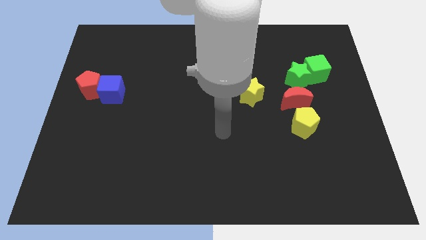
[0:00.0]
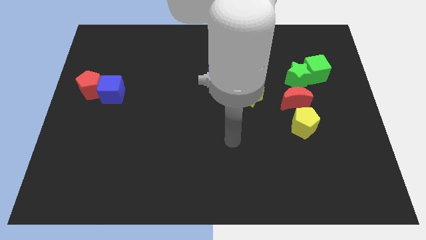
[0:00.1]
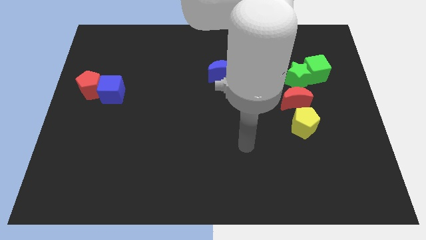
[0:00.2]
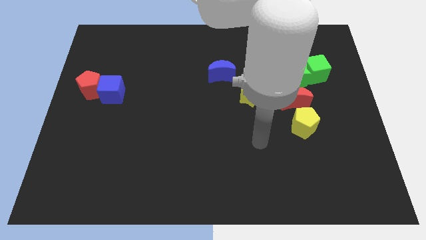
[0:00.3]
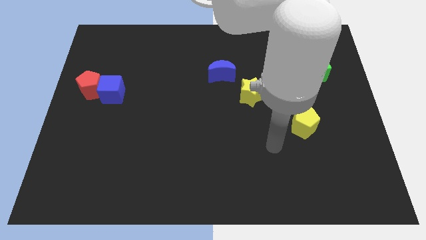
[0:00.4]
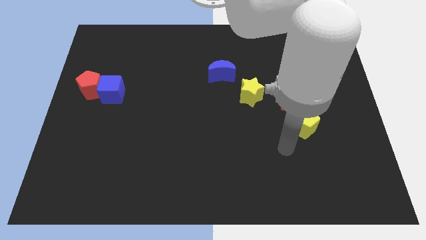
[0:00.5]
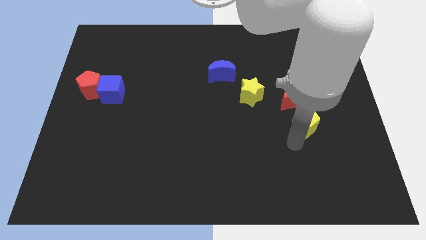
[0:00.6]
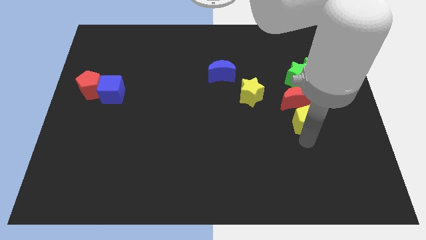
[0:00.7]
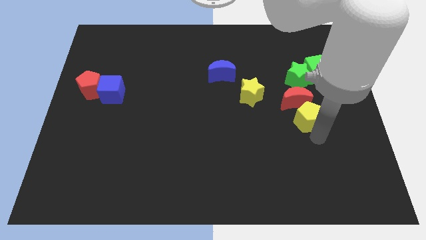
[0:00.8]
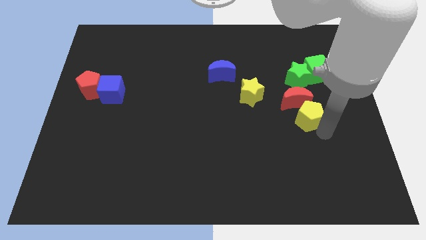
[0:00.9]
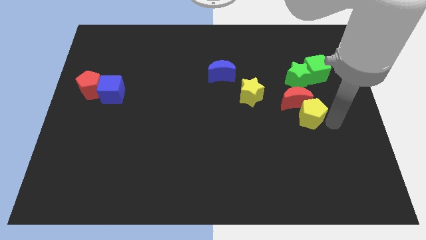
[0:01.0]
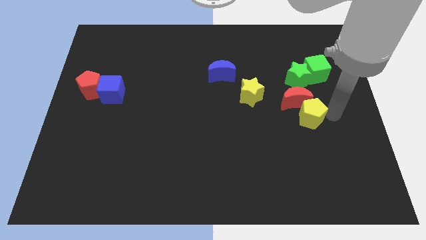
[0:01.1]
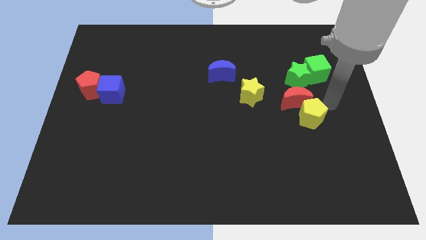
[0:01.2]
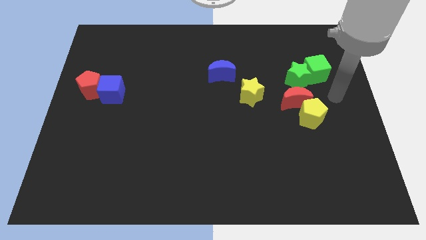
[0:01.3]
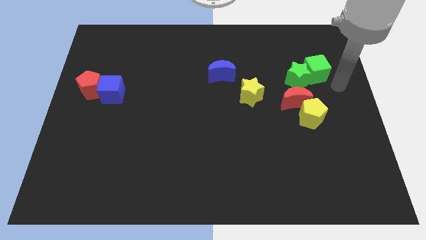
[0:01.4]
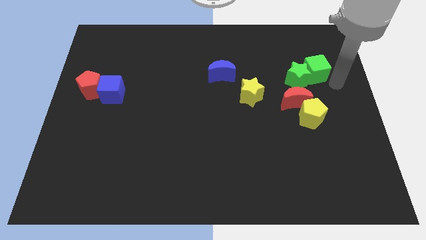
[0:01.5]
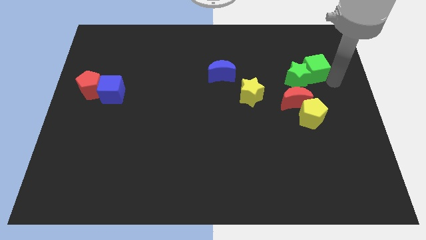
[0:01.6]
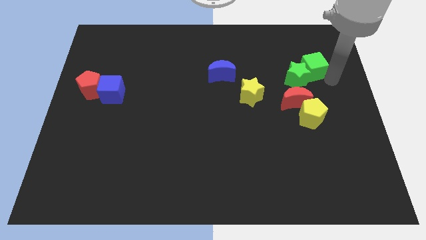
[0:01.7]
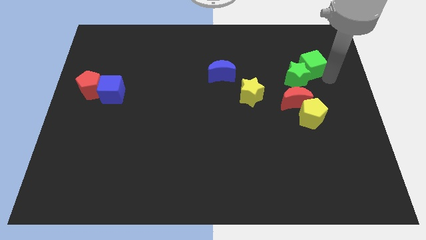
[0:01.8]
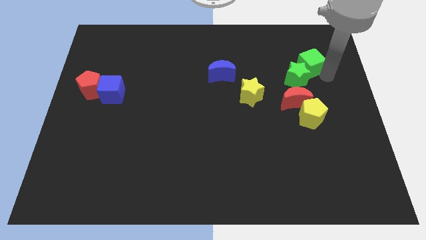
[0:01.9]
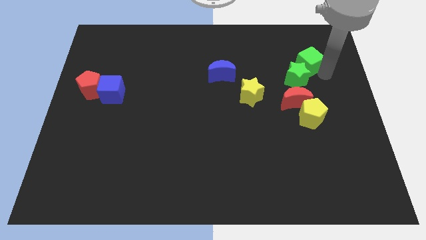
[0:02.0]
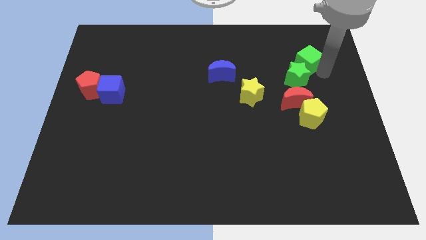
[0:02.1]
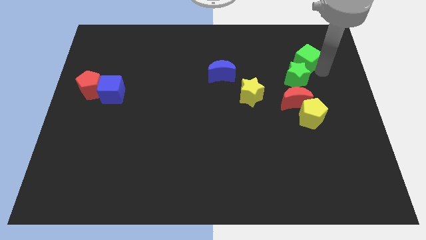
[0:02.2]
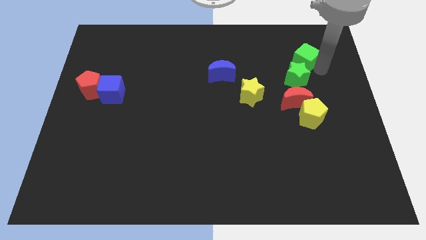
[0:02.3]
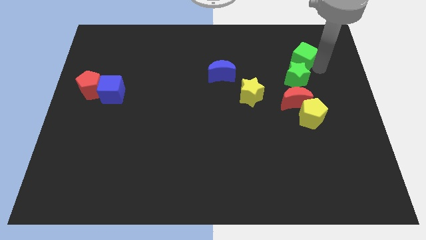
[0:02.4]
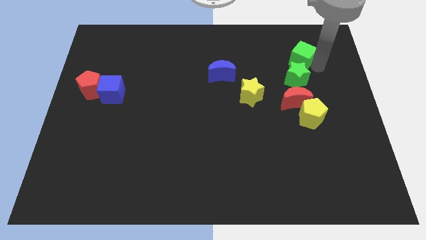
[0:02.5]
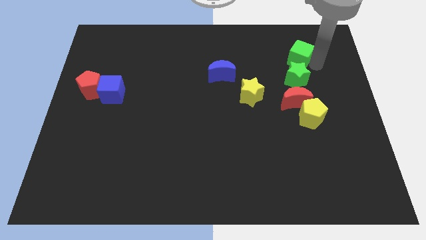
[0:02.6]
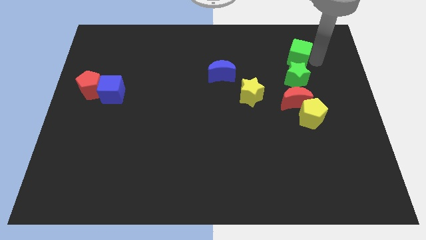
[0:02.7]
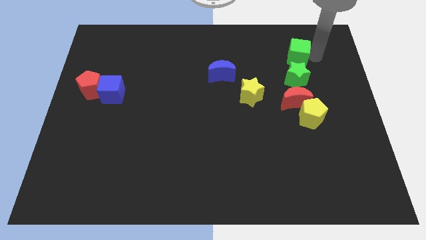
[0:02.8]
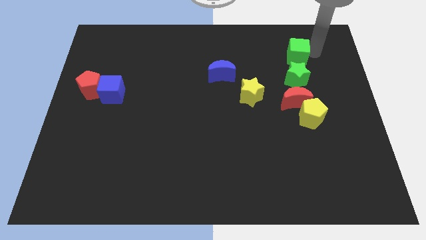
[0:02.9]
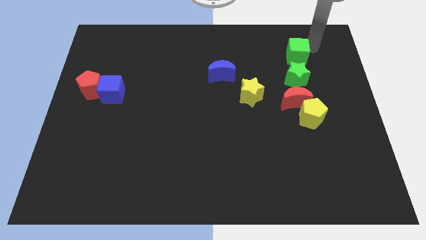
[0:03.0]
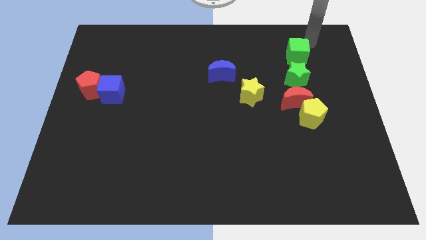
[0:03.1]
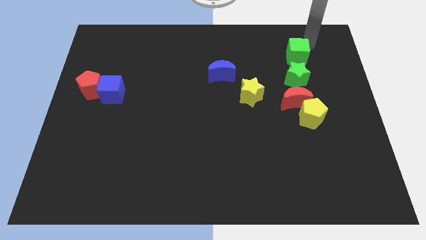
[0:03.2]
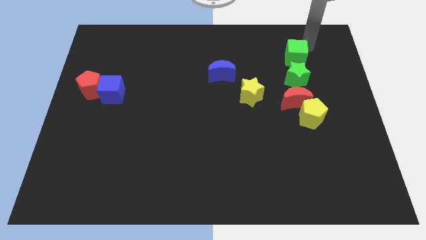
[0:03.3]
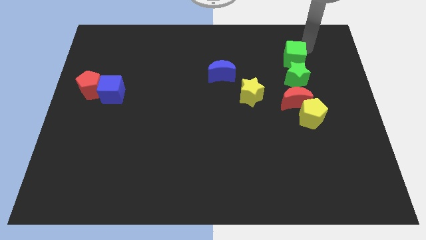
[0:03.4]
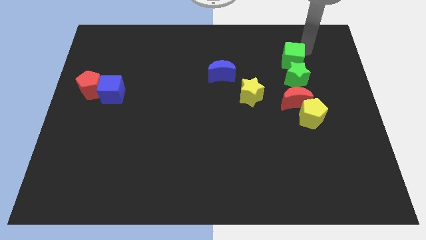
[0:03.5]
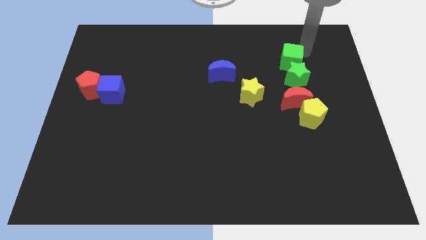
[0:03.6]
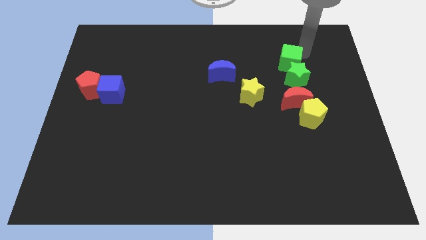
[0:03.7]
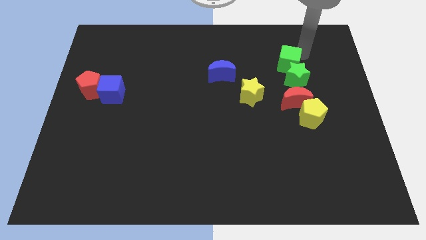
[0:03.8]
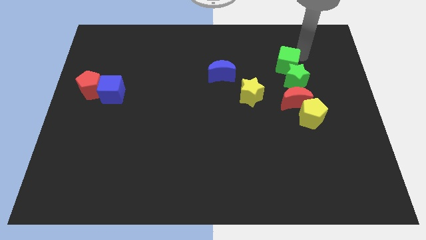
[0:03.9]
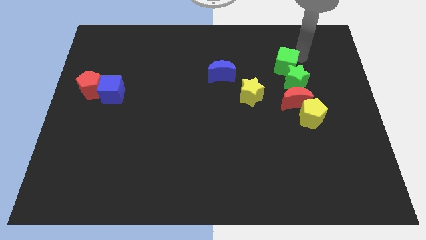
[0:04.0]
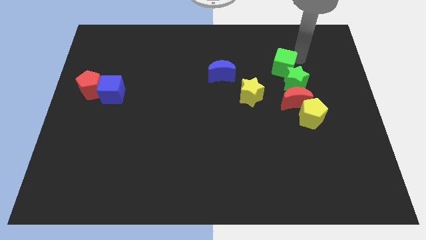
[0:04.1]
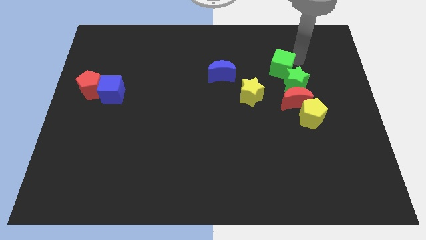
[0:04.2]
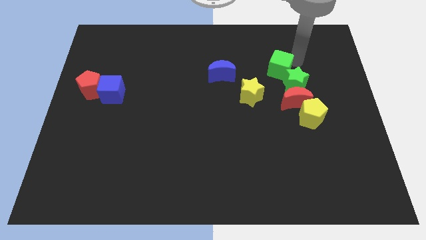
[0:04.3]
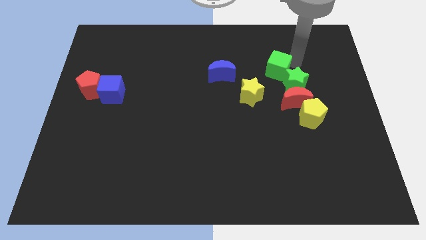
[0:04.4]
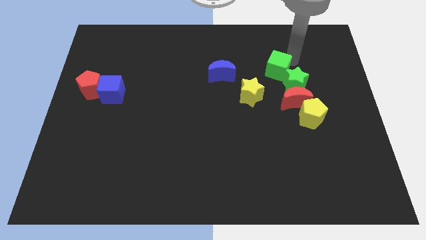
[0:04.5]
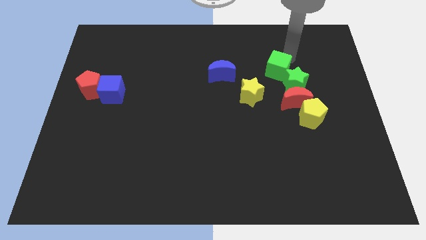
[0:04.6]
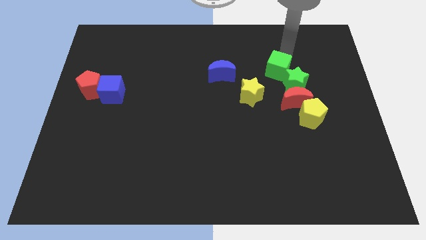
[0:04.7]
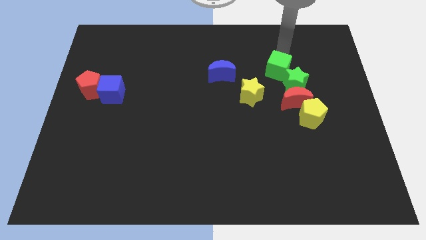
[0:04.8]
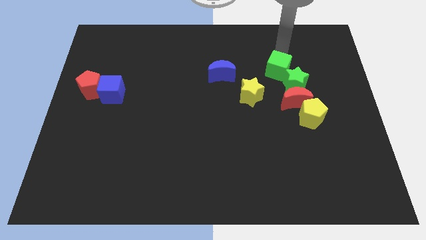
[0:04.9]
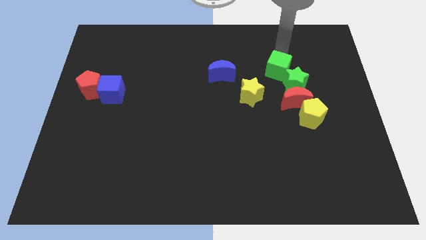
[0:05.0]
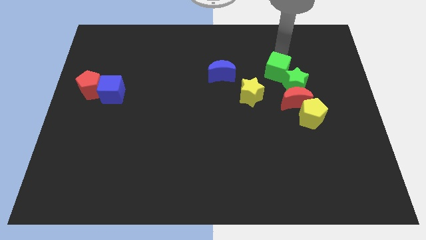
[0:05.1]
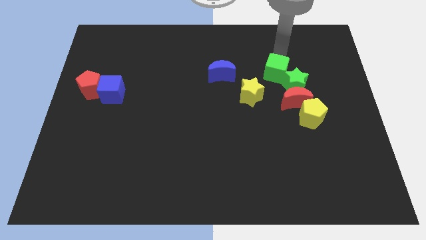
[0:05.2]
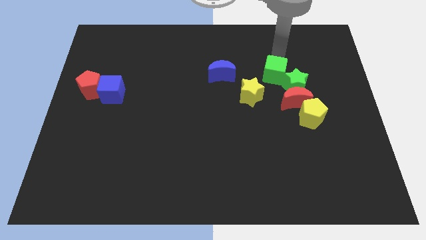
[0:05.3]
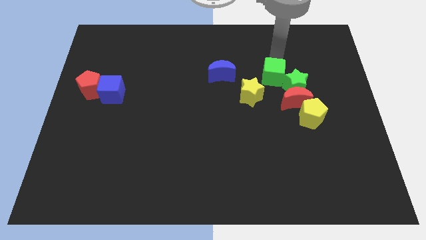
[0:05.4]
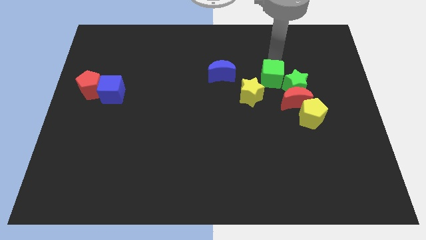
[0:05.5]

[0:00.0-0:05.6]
slightly move the green cube down and then left

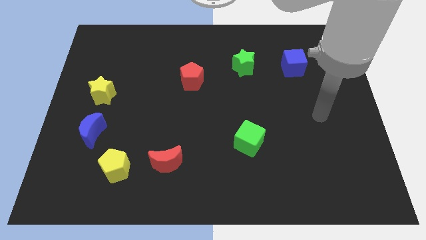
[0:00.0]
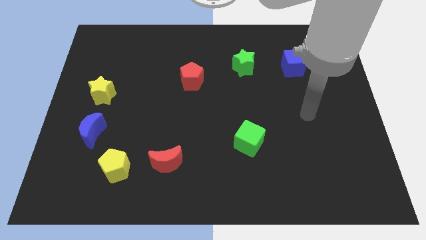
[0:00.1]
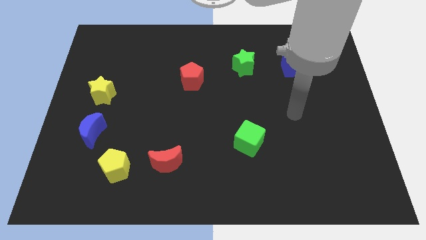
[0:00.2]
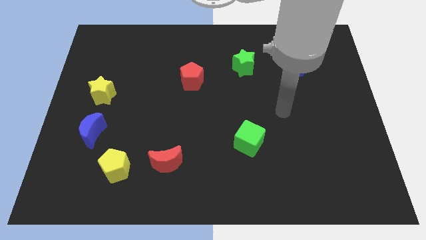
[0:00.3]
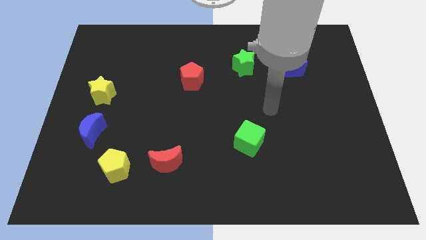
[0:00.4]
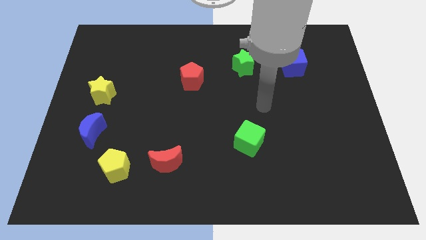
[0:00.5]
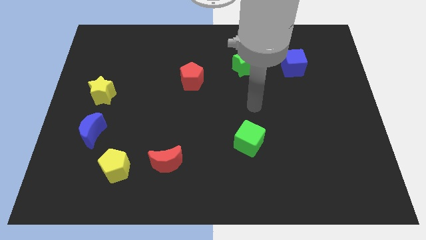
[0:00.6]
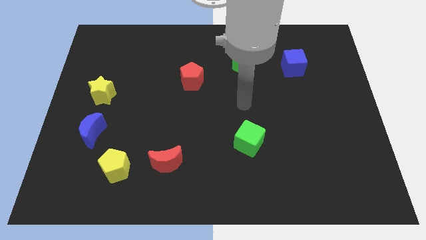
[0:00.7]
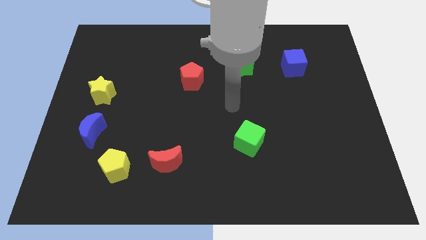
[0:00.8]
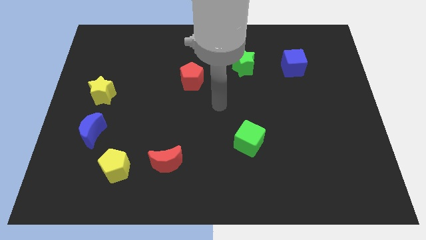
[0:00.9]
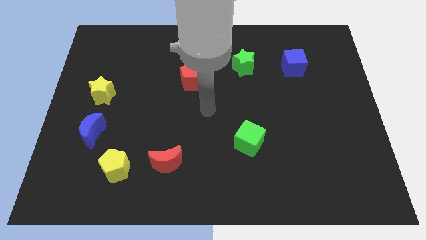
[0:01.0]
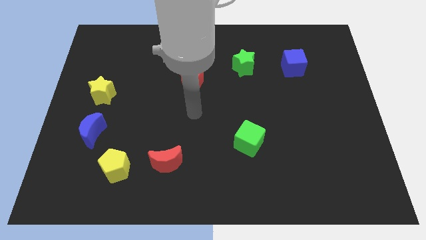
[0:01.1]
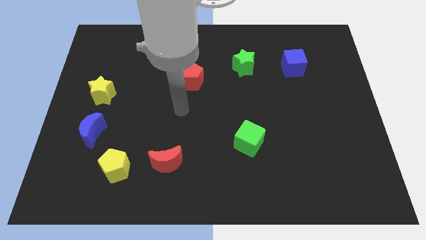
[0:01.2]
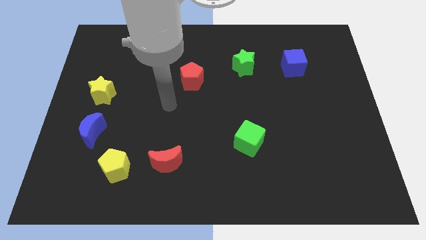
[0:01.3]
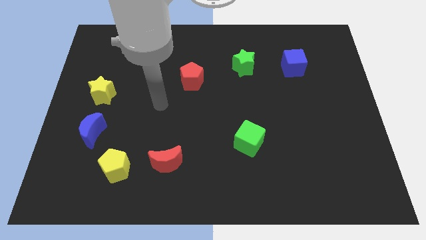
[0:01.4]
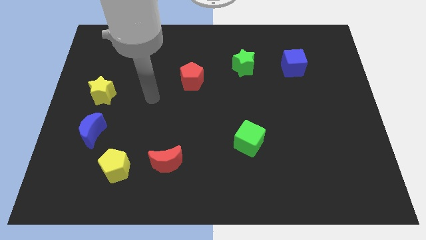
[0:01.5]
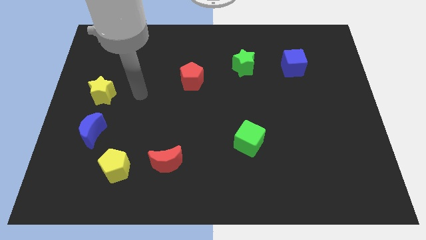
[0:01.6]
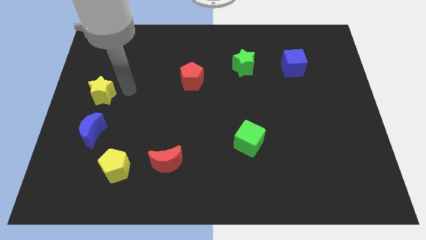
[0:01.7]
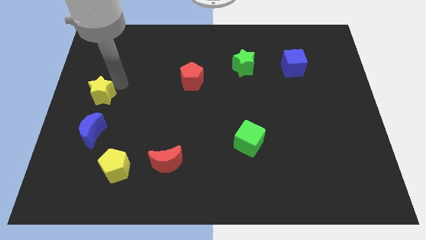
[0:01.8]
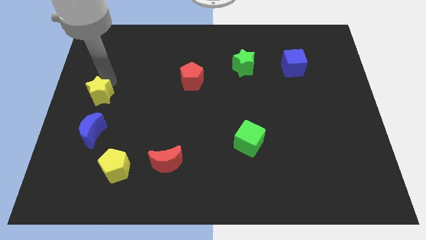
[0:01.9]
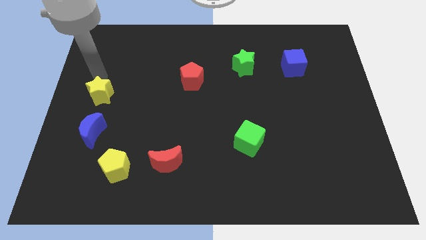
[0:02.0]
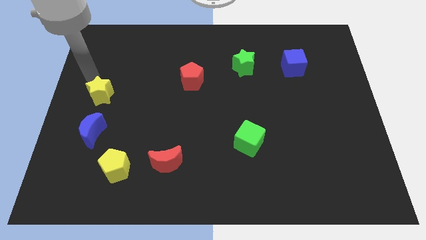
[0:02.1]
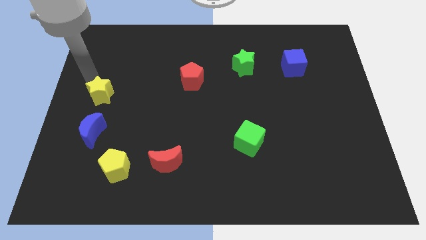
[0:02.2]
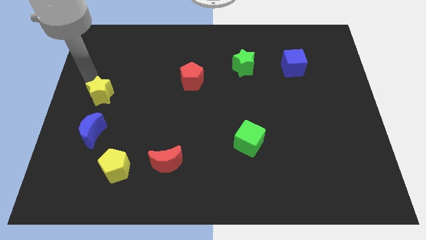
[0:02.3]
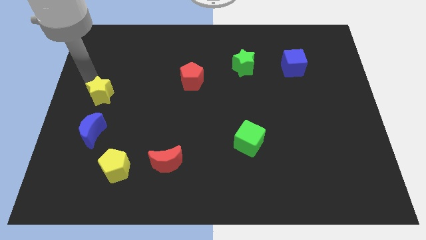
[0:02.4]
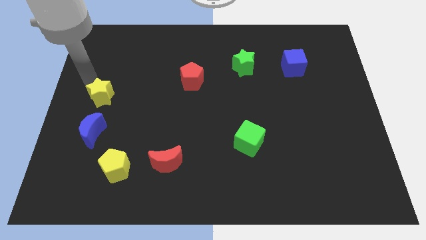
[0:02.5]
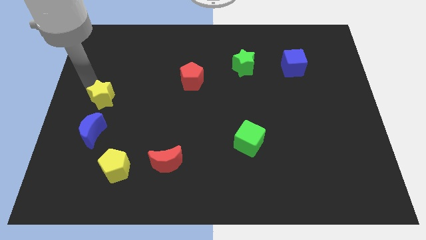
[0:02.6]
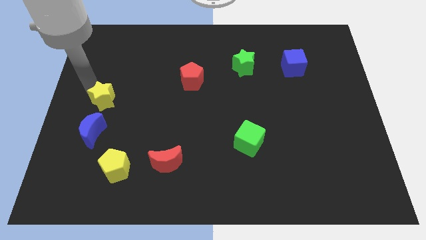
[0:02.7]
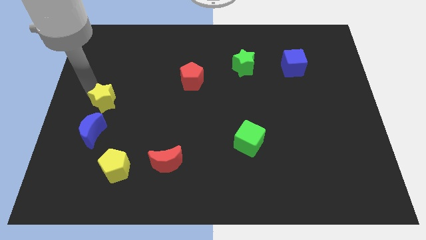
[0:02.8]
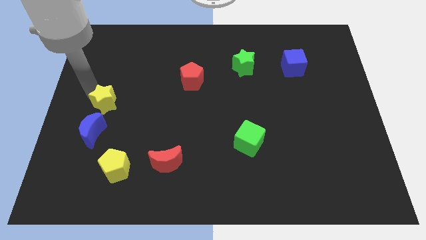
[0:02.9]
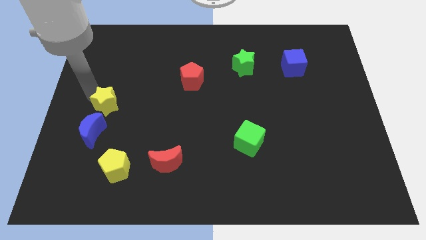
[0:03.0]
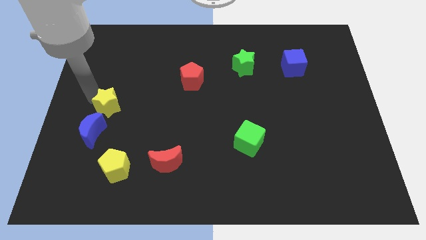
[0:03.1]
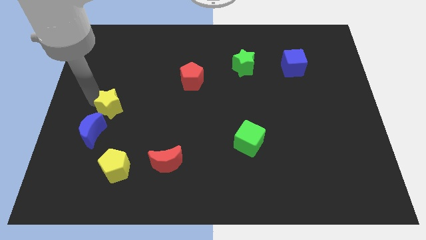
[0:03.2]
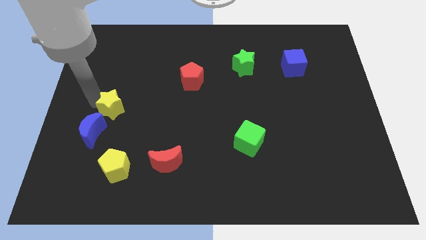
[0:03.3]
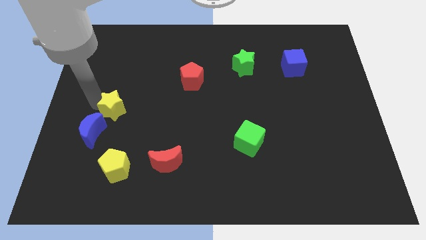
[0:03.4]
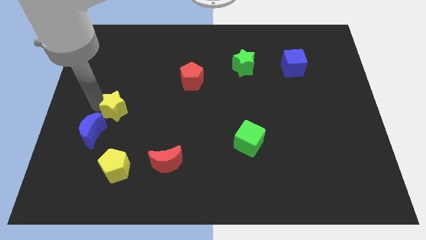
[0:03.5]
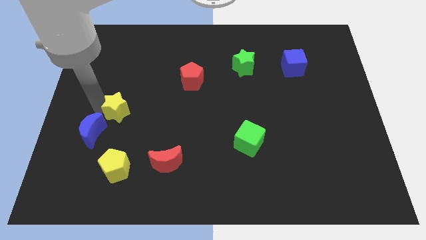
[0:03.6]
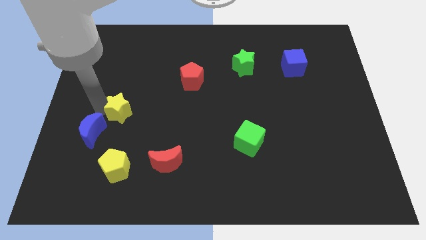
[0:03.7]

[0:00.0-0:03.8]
slightly slide the yellow star diagonally down and to the right
